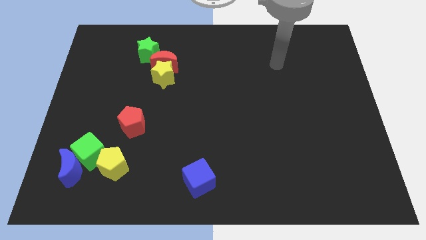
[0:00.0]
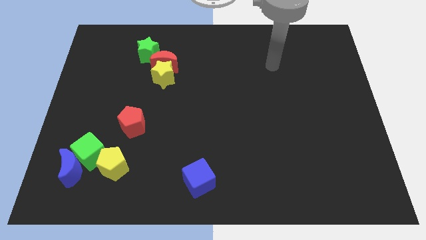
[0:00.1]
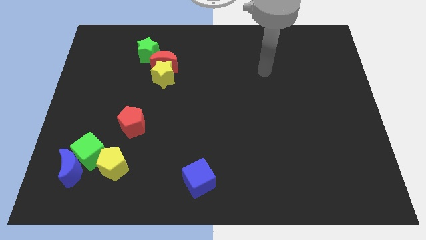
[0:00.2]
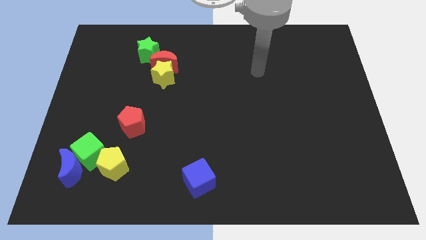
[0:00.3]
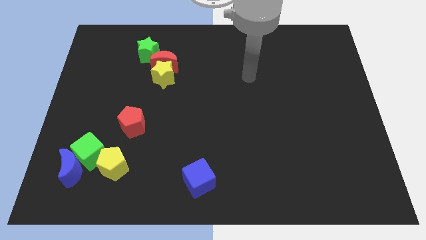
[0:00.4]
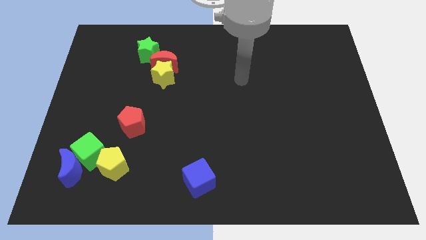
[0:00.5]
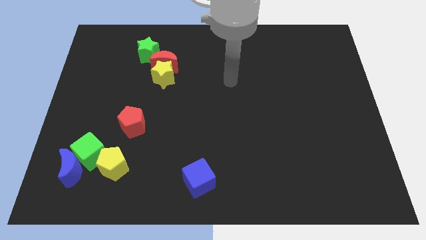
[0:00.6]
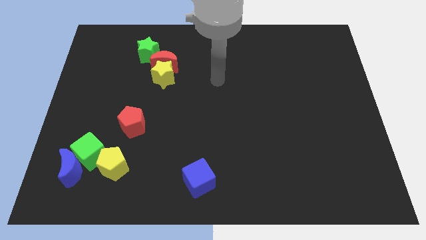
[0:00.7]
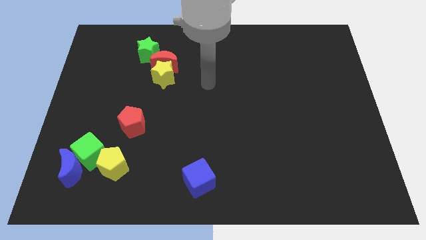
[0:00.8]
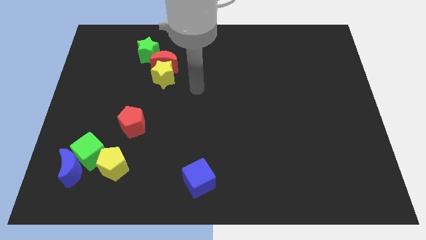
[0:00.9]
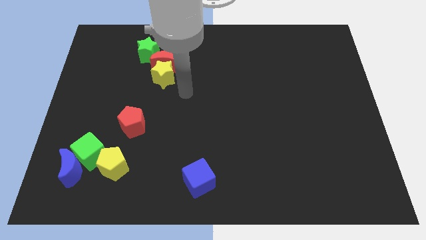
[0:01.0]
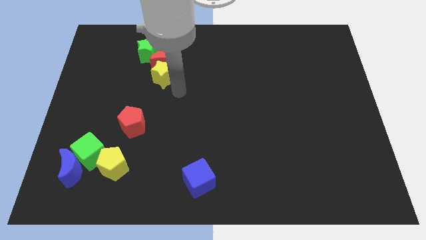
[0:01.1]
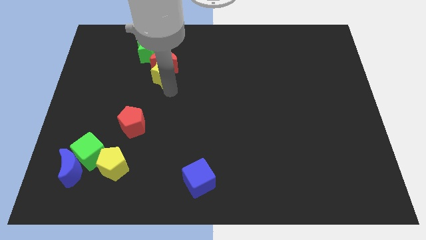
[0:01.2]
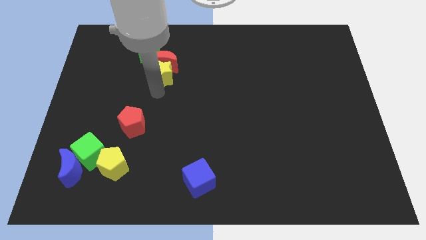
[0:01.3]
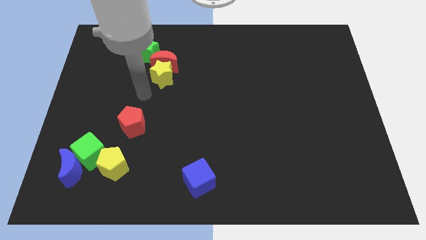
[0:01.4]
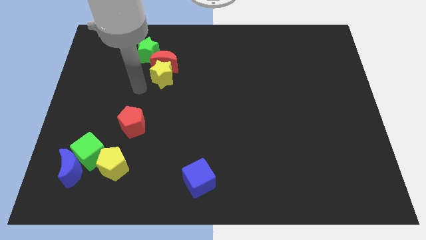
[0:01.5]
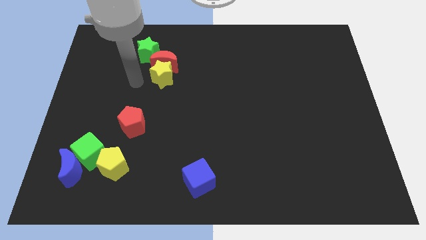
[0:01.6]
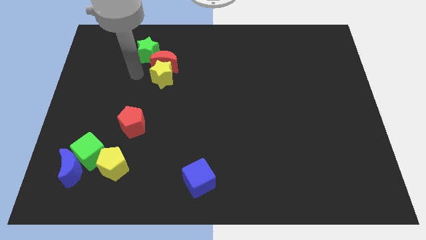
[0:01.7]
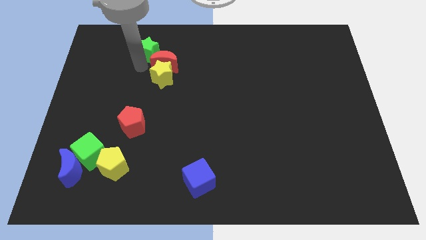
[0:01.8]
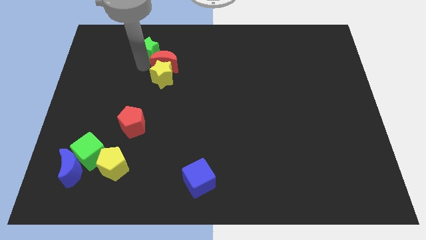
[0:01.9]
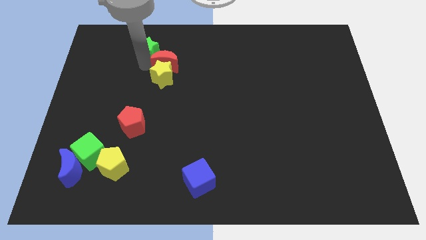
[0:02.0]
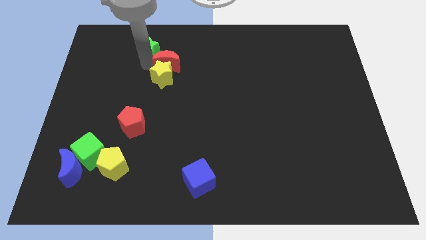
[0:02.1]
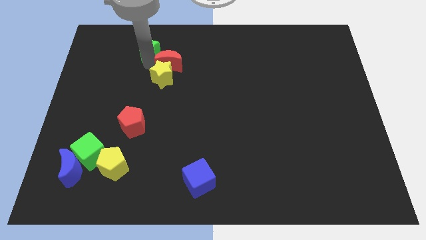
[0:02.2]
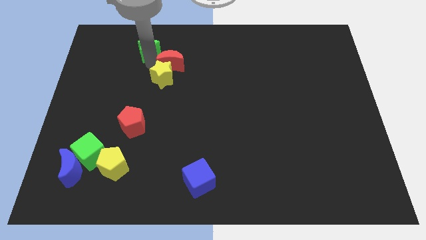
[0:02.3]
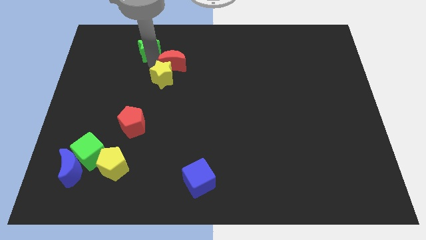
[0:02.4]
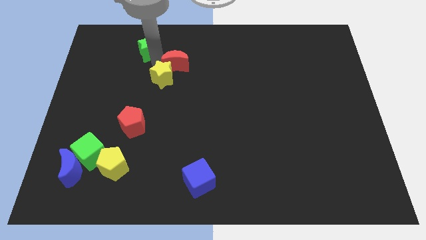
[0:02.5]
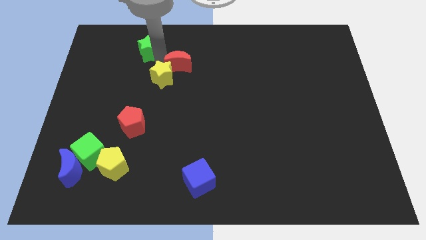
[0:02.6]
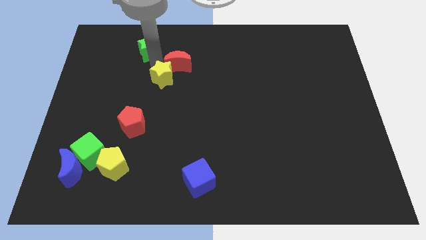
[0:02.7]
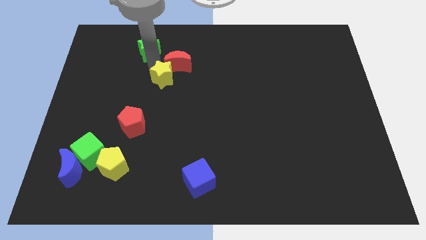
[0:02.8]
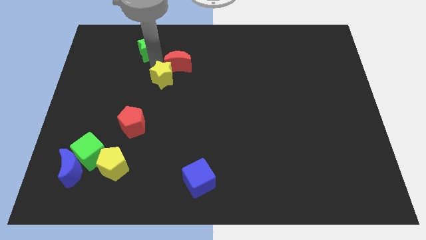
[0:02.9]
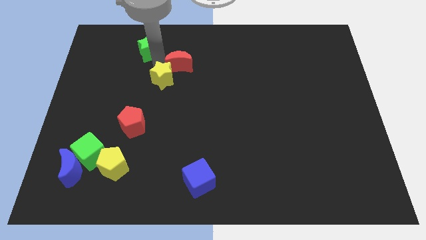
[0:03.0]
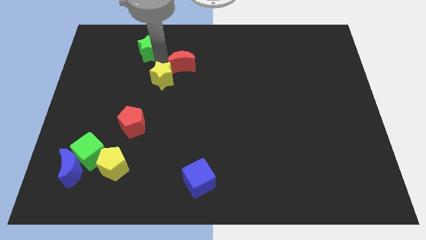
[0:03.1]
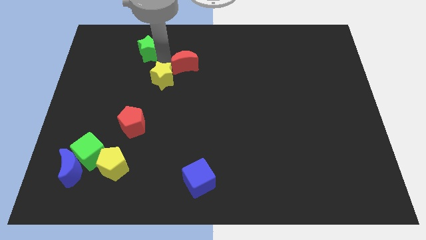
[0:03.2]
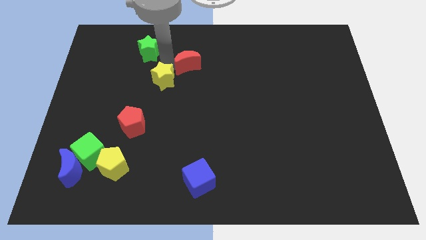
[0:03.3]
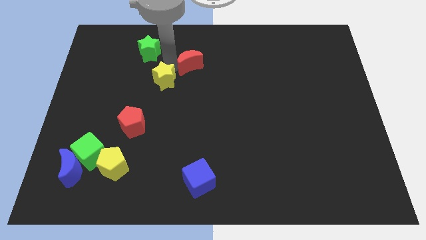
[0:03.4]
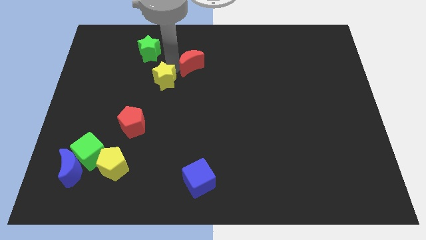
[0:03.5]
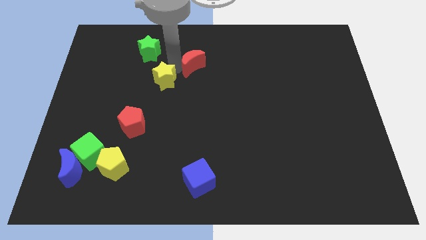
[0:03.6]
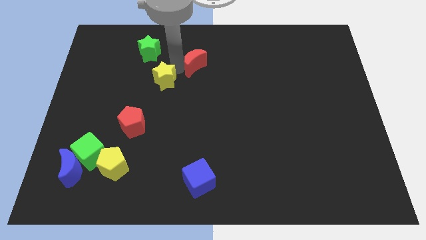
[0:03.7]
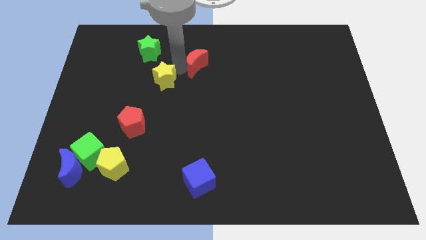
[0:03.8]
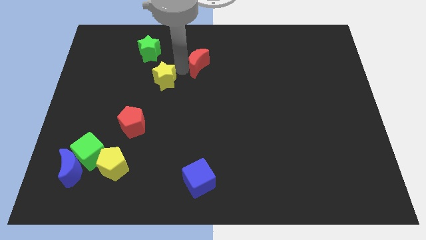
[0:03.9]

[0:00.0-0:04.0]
separate the red moon from the yellow star and green star

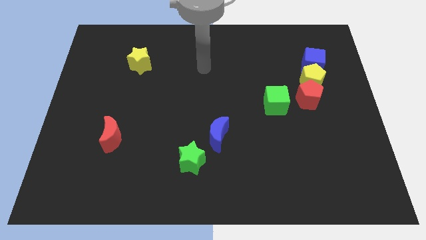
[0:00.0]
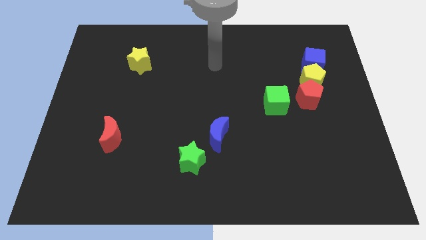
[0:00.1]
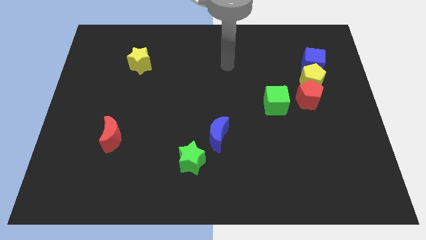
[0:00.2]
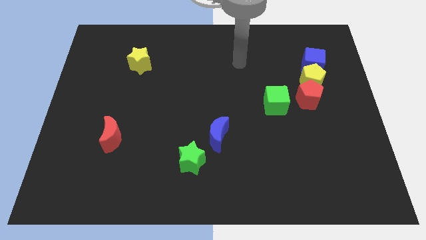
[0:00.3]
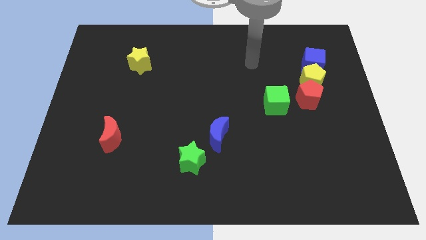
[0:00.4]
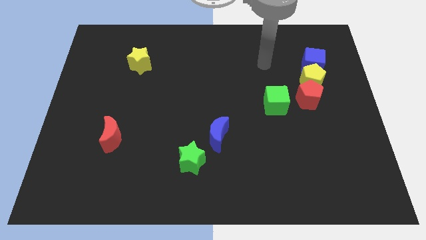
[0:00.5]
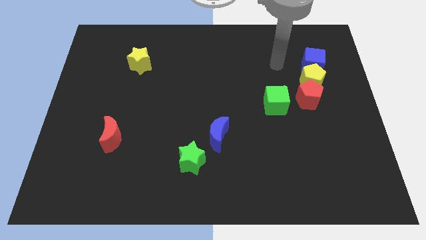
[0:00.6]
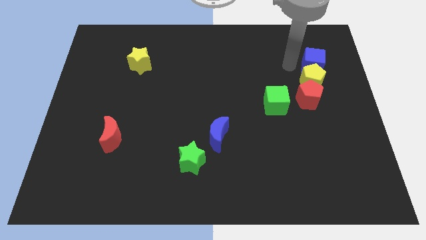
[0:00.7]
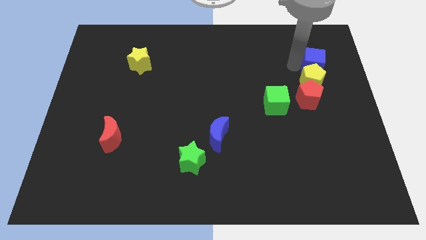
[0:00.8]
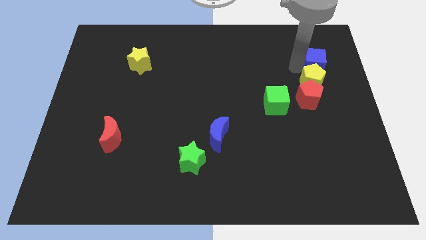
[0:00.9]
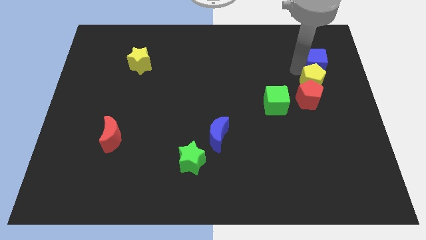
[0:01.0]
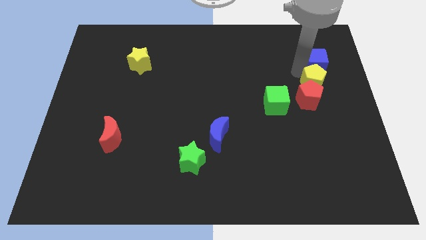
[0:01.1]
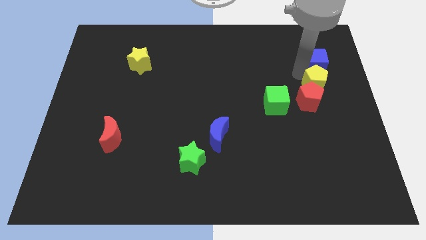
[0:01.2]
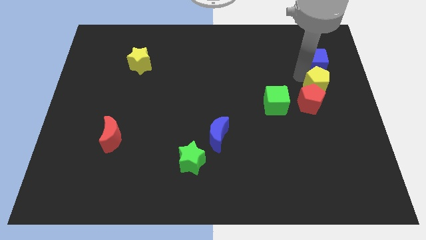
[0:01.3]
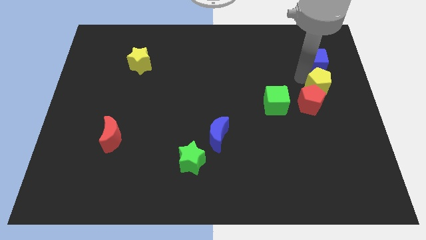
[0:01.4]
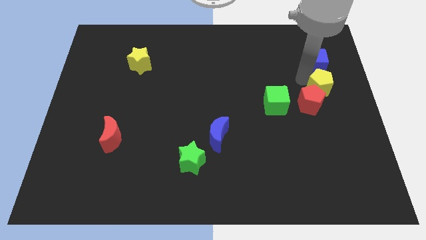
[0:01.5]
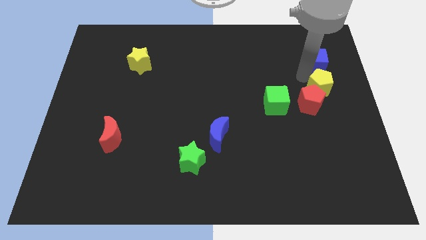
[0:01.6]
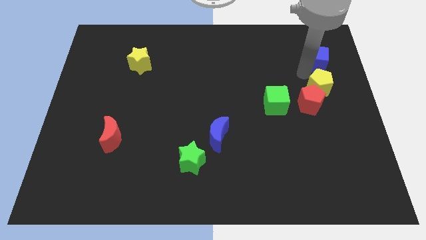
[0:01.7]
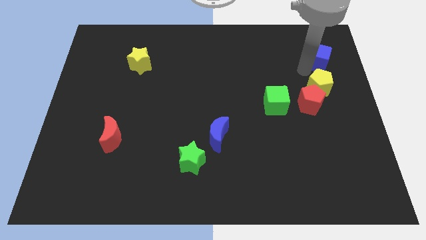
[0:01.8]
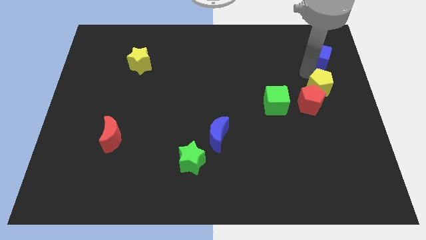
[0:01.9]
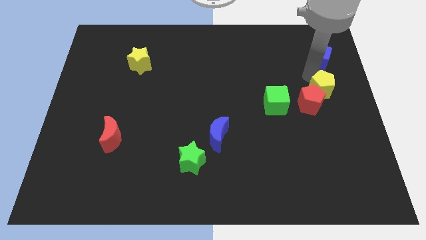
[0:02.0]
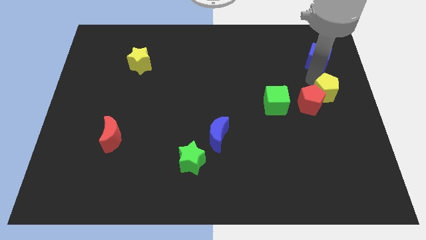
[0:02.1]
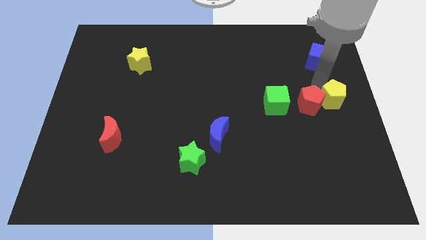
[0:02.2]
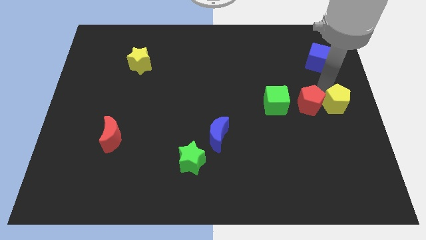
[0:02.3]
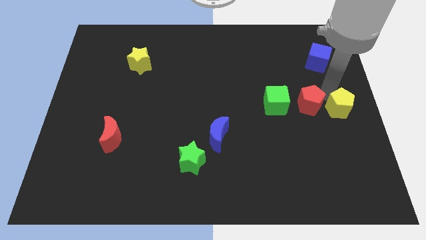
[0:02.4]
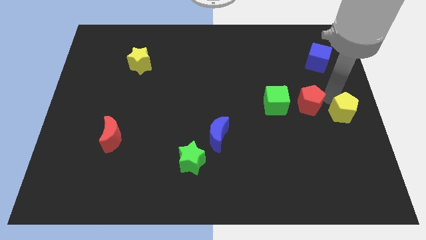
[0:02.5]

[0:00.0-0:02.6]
separate the yellow pentagon from the red pentagon and blue cube

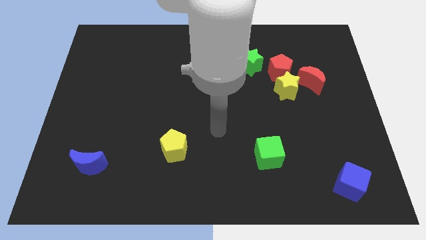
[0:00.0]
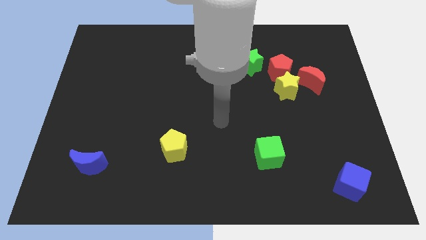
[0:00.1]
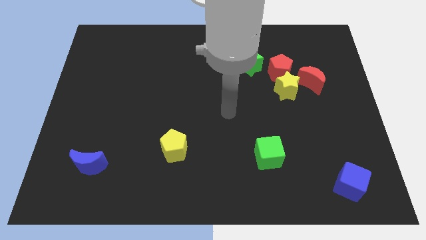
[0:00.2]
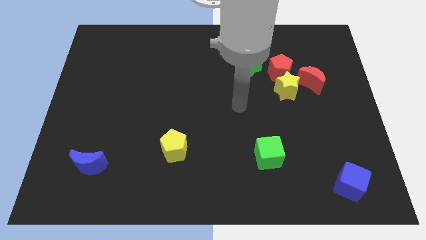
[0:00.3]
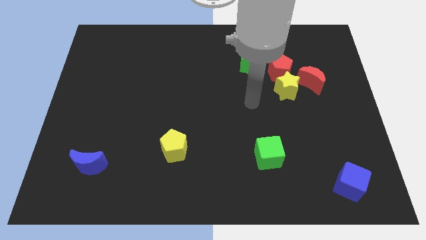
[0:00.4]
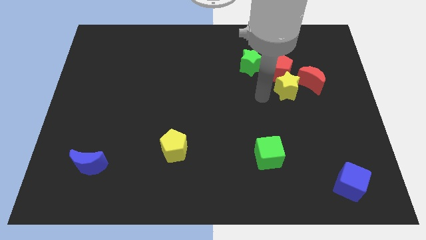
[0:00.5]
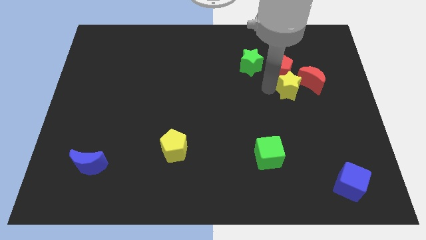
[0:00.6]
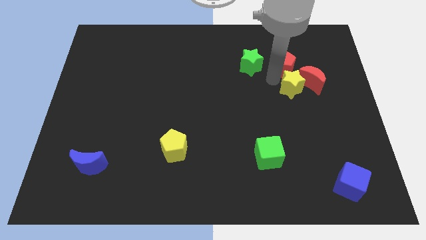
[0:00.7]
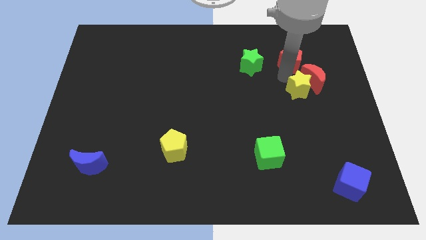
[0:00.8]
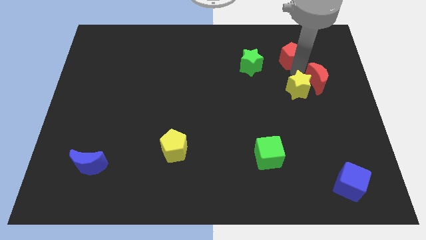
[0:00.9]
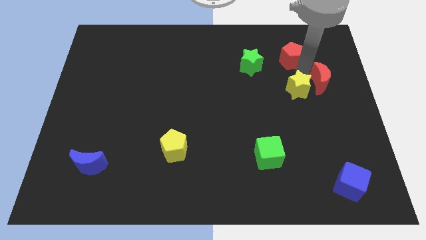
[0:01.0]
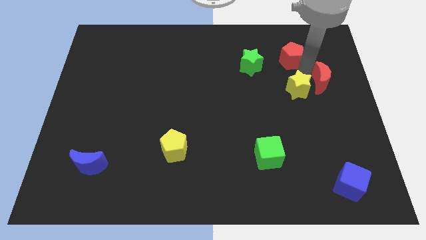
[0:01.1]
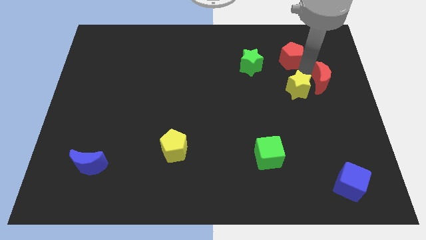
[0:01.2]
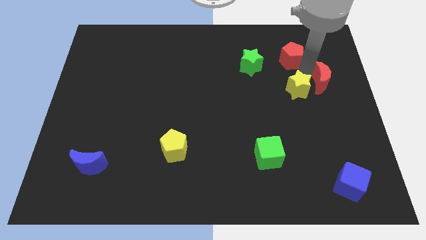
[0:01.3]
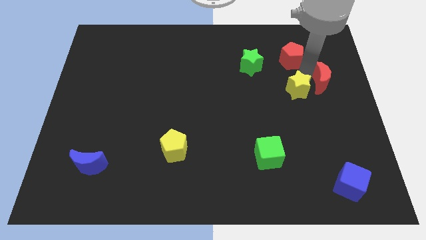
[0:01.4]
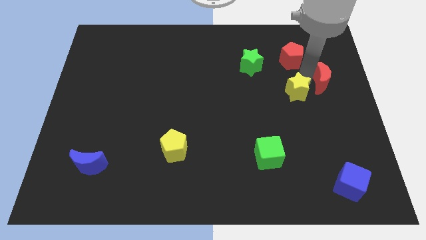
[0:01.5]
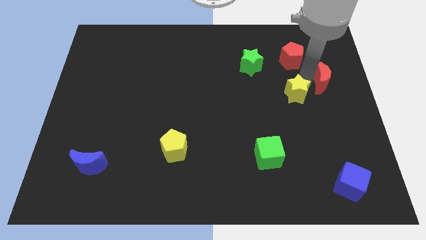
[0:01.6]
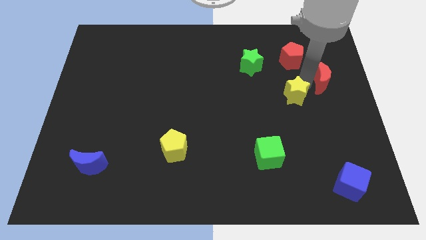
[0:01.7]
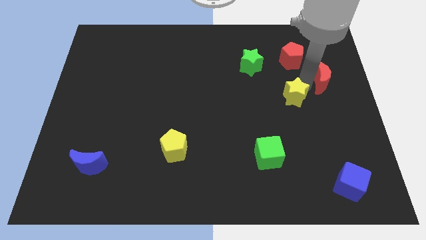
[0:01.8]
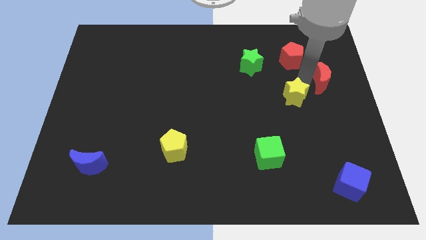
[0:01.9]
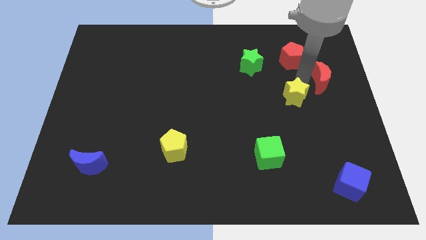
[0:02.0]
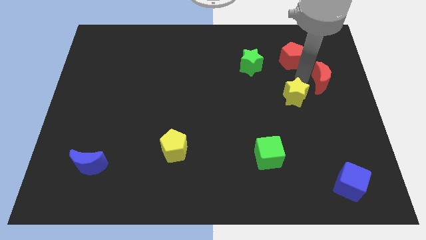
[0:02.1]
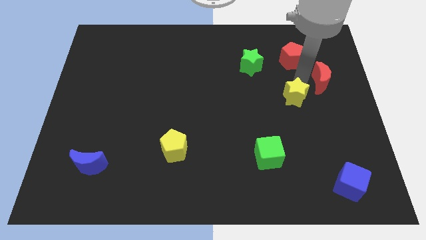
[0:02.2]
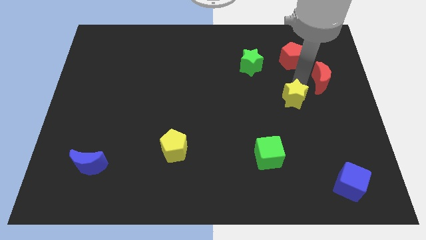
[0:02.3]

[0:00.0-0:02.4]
move the yellow star away from the red pentagon and red moon

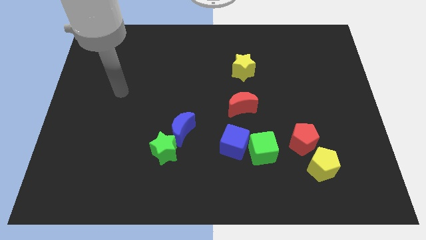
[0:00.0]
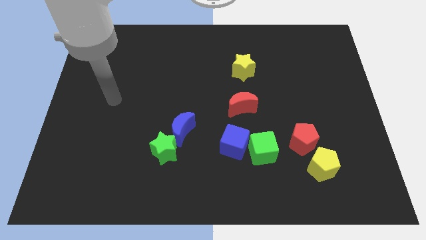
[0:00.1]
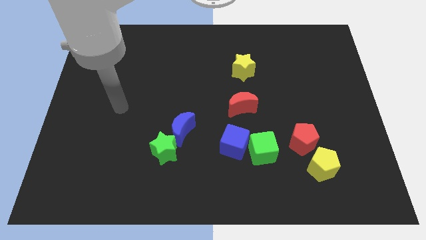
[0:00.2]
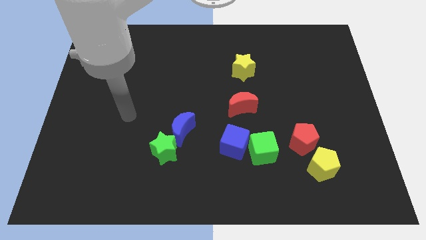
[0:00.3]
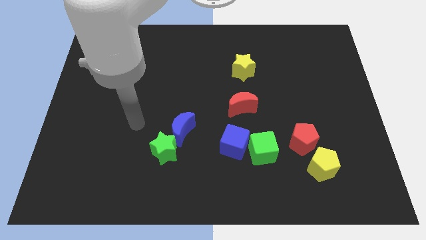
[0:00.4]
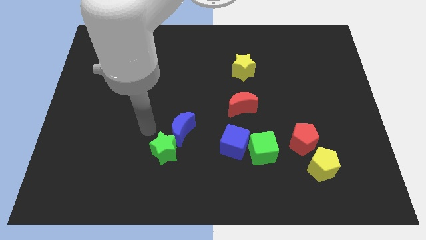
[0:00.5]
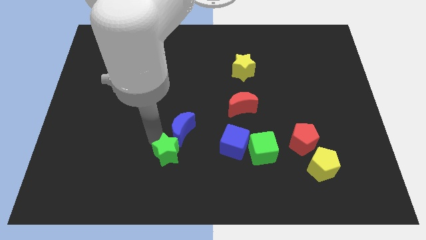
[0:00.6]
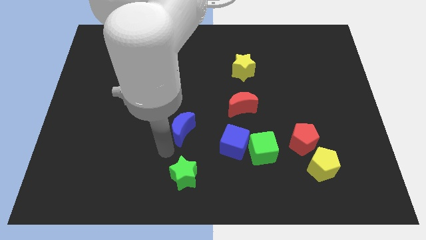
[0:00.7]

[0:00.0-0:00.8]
move the blue moon away from the green star
